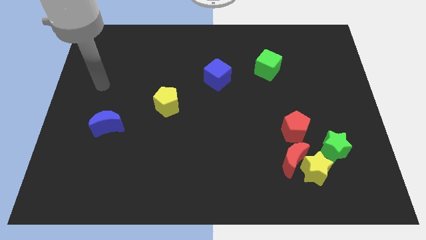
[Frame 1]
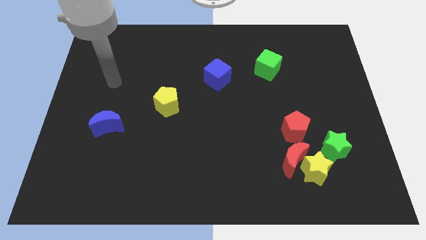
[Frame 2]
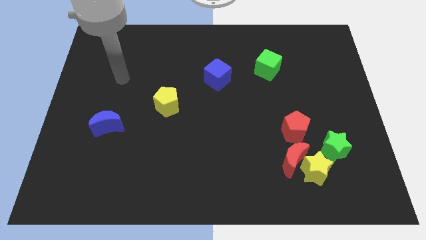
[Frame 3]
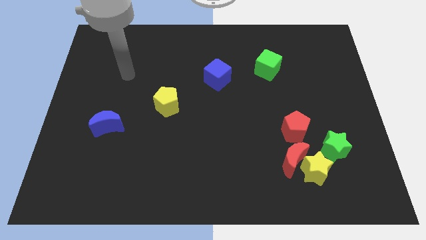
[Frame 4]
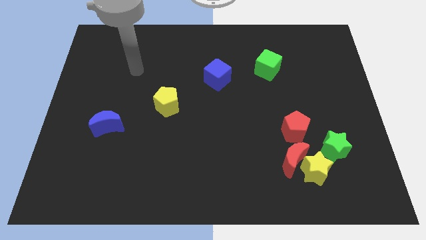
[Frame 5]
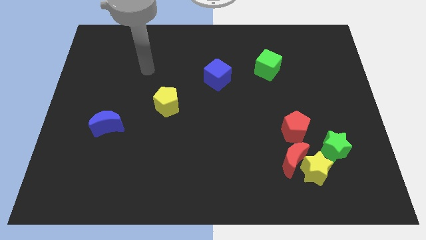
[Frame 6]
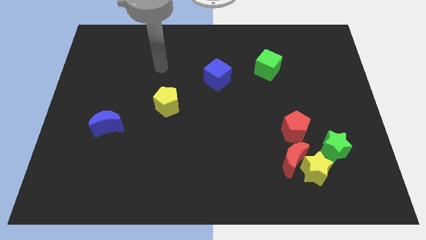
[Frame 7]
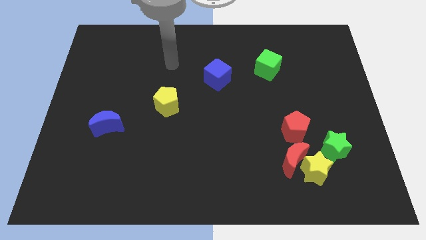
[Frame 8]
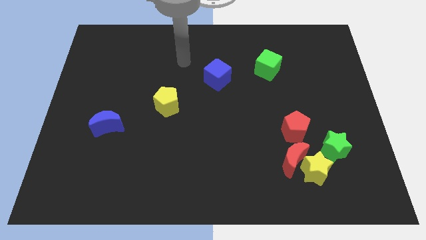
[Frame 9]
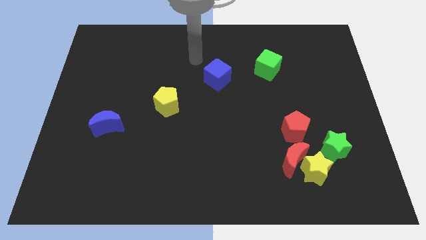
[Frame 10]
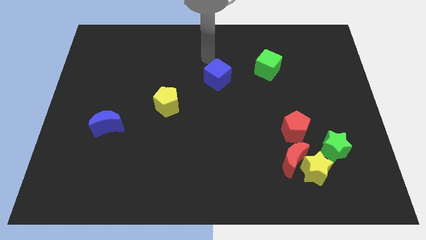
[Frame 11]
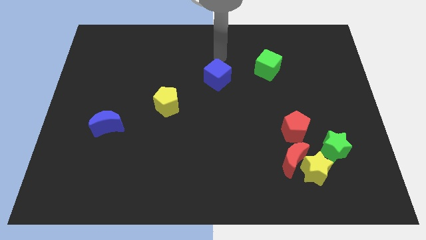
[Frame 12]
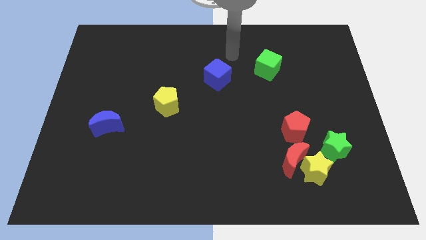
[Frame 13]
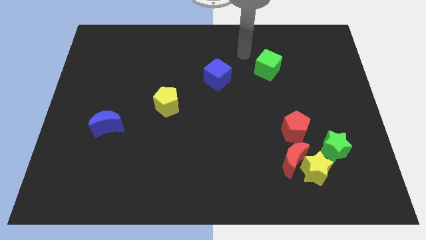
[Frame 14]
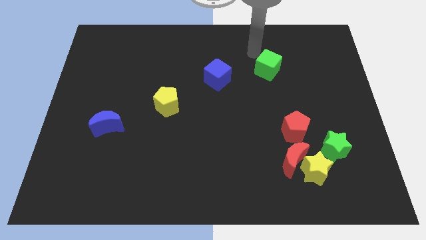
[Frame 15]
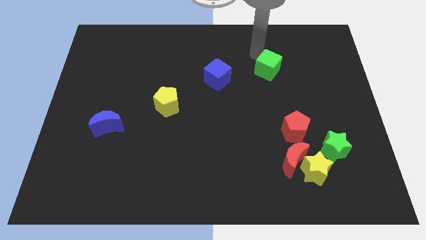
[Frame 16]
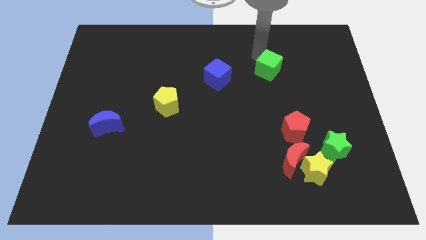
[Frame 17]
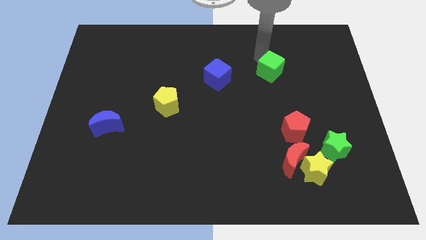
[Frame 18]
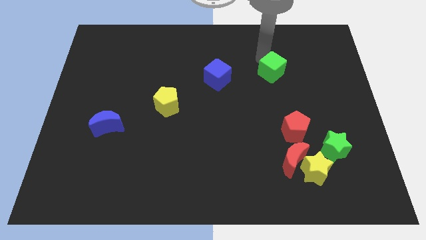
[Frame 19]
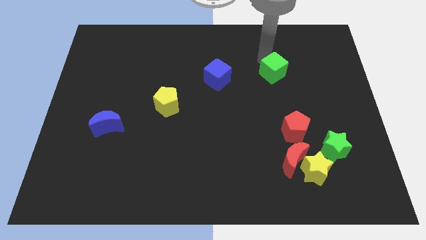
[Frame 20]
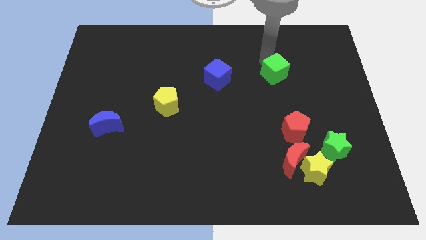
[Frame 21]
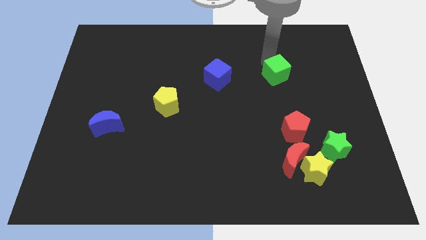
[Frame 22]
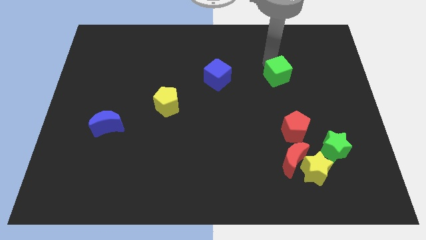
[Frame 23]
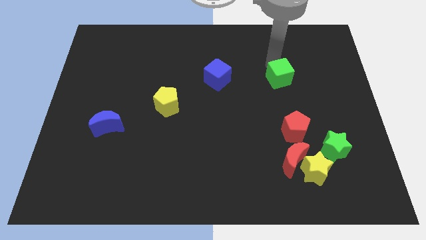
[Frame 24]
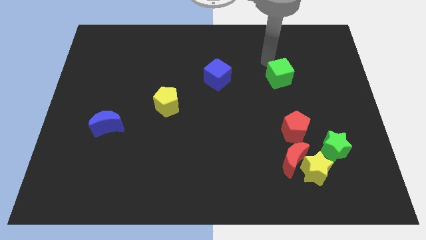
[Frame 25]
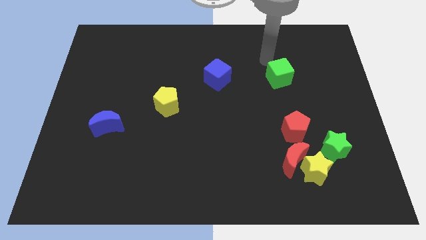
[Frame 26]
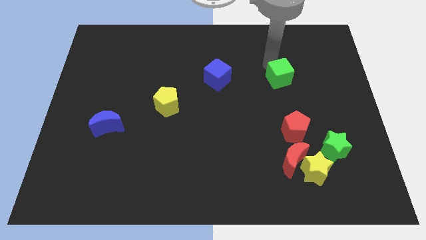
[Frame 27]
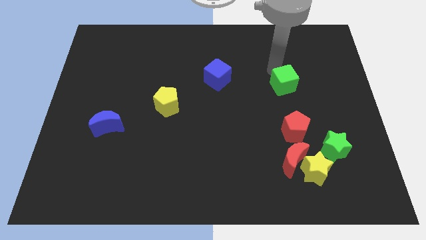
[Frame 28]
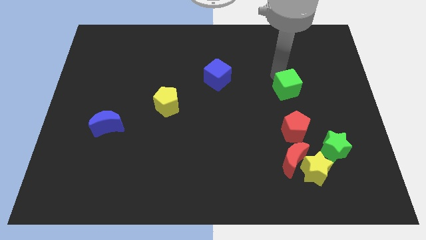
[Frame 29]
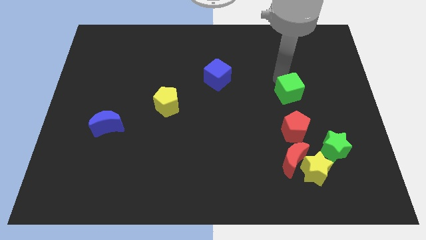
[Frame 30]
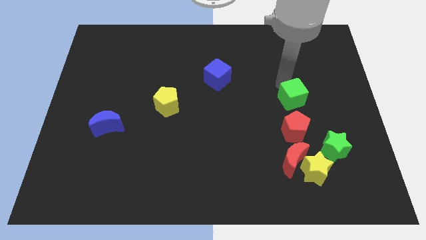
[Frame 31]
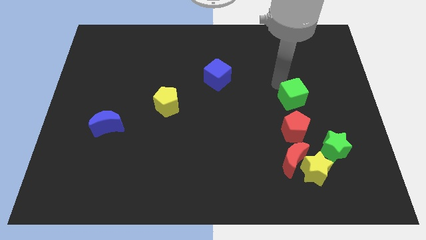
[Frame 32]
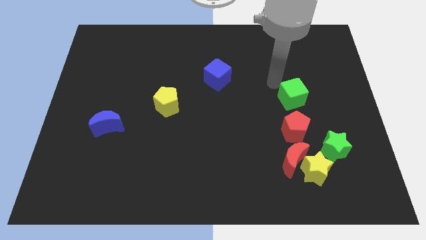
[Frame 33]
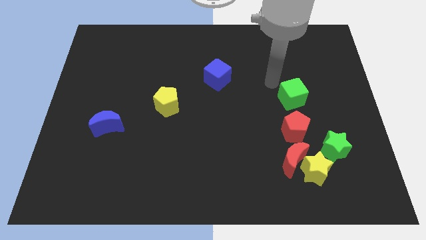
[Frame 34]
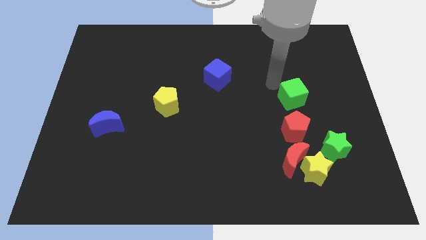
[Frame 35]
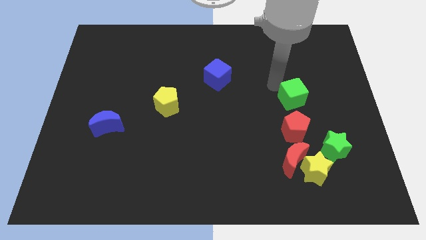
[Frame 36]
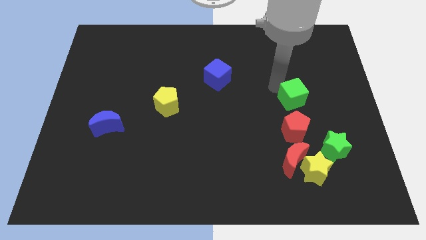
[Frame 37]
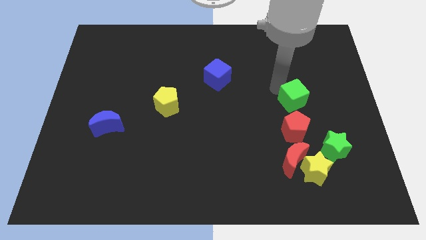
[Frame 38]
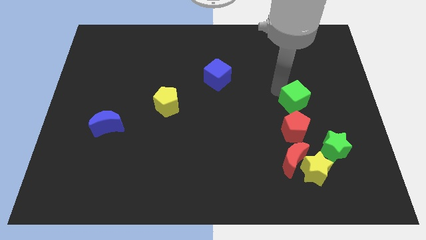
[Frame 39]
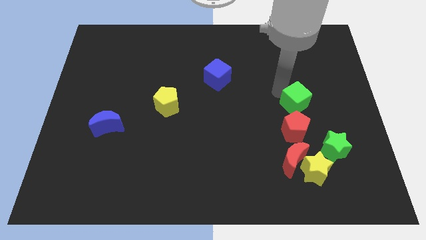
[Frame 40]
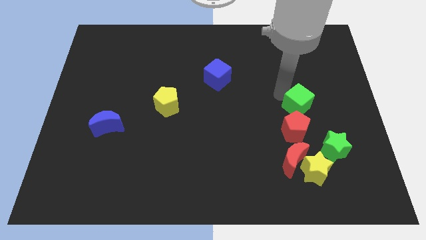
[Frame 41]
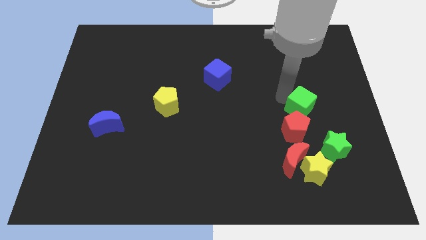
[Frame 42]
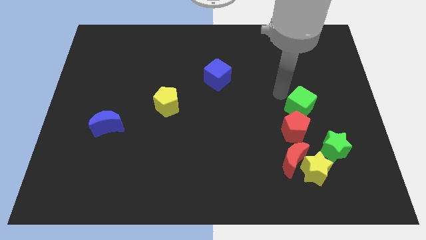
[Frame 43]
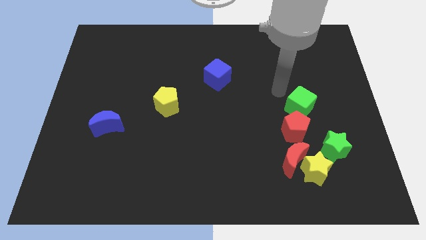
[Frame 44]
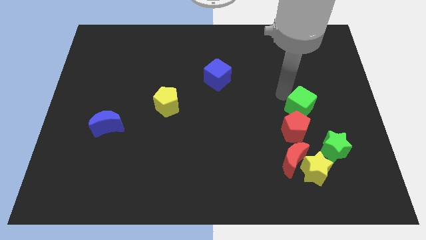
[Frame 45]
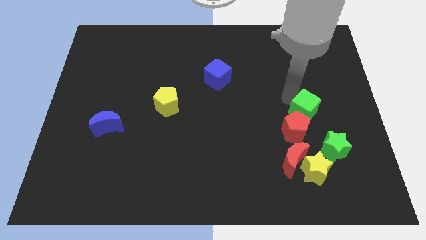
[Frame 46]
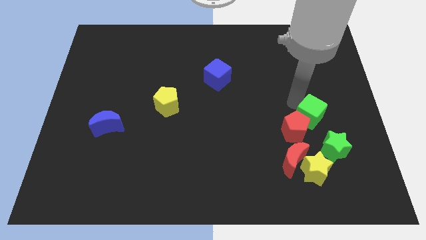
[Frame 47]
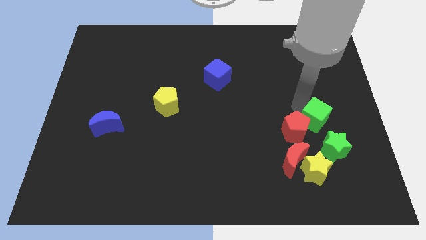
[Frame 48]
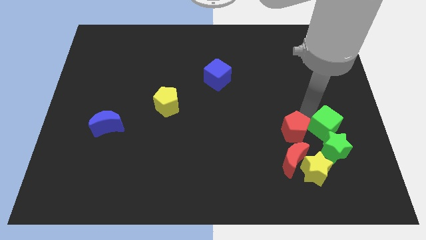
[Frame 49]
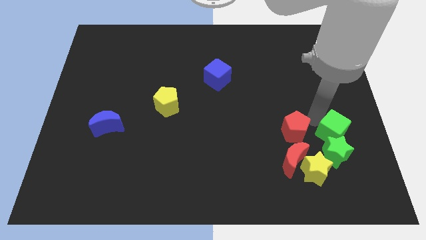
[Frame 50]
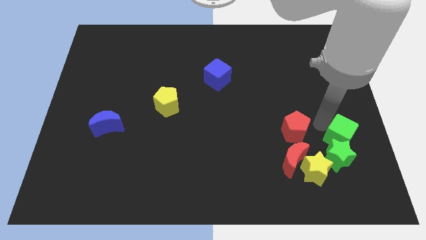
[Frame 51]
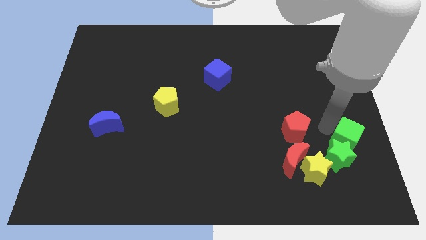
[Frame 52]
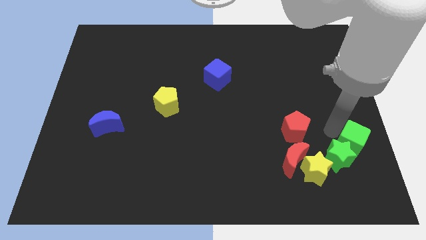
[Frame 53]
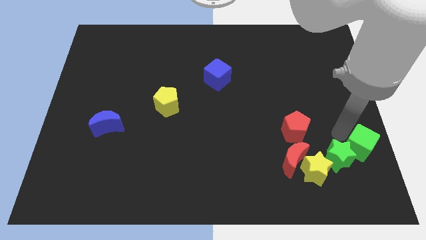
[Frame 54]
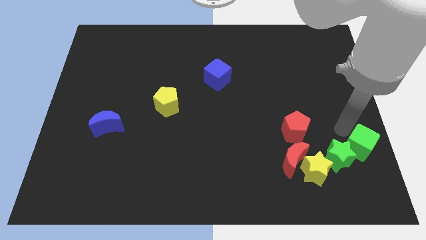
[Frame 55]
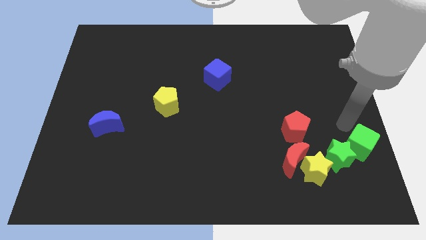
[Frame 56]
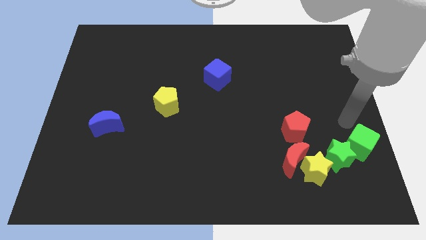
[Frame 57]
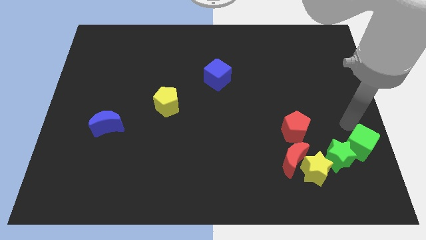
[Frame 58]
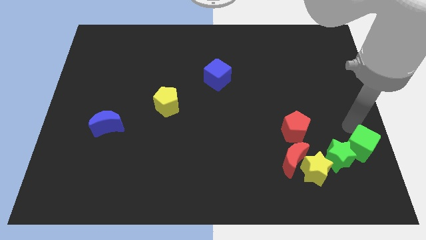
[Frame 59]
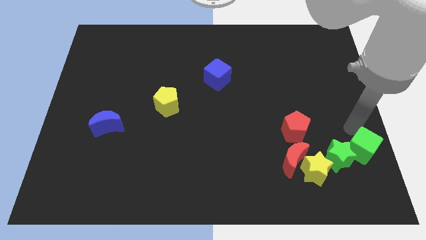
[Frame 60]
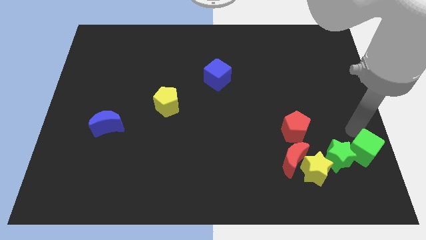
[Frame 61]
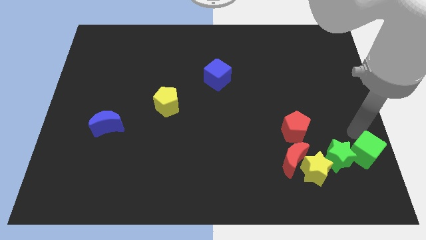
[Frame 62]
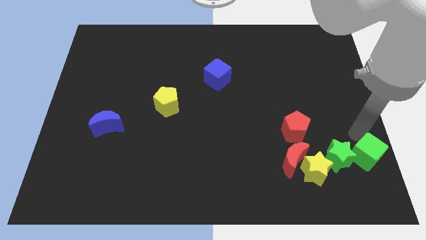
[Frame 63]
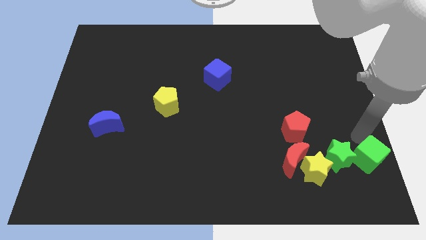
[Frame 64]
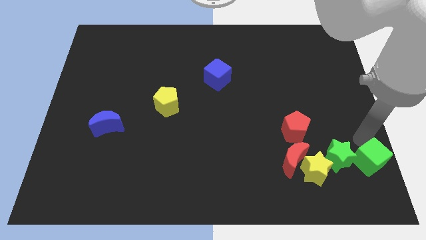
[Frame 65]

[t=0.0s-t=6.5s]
slide the green cube to the bottom right corner

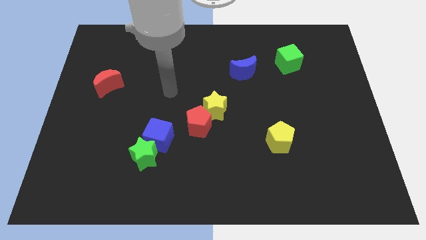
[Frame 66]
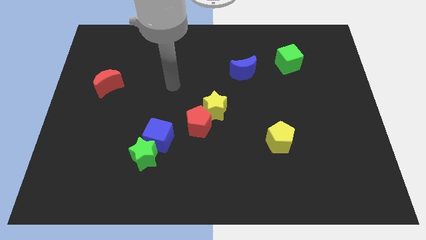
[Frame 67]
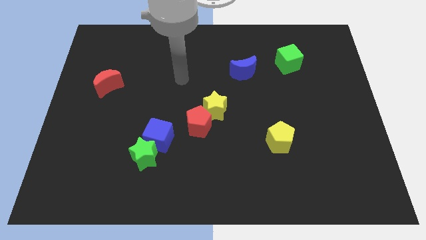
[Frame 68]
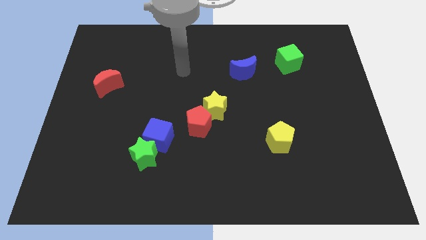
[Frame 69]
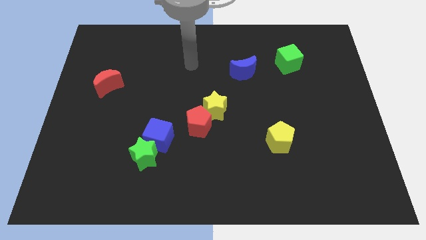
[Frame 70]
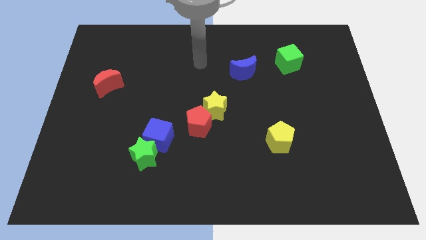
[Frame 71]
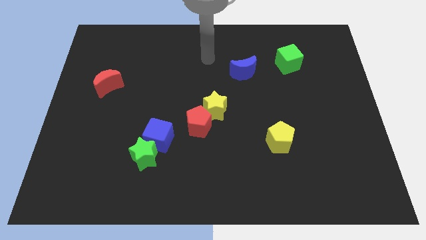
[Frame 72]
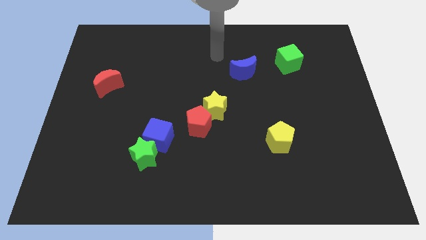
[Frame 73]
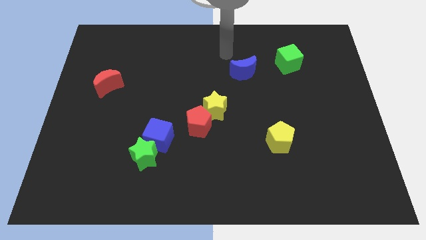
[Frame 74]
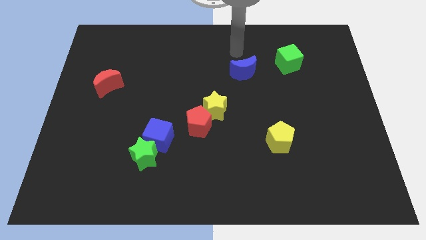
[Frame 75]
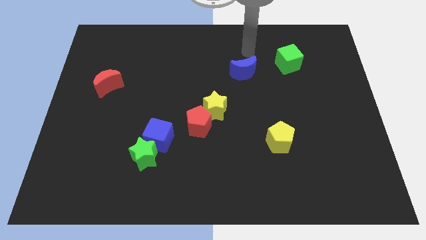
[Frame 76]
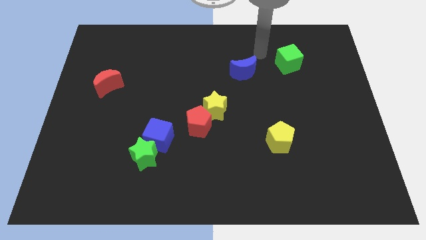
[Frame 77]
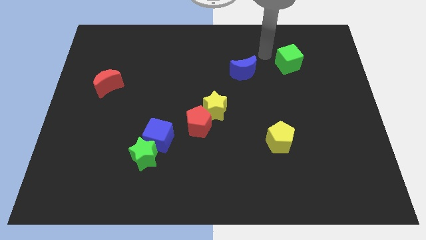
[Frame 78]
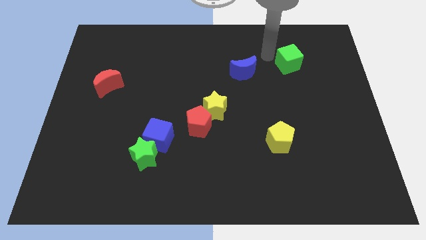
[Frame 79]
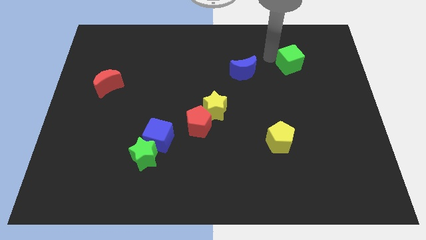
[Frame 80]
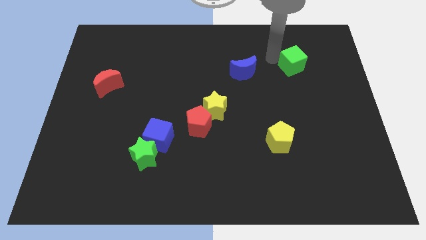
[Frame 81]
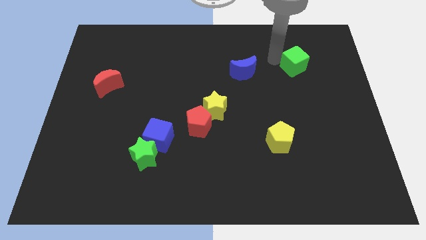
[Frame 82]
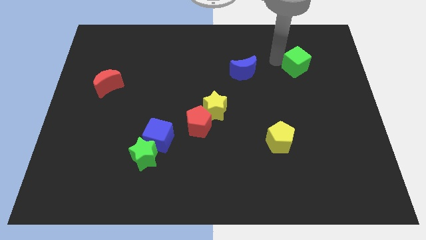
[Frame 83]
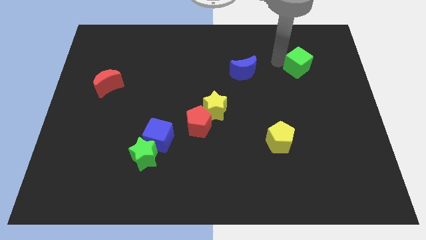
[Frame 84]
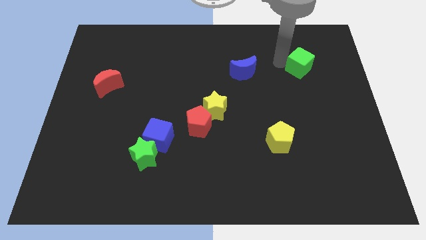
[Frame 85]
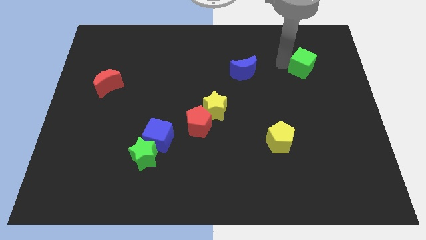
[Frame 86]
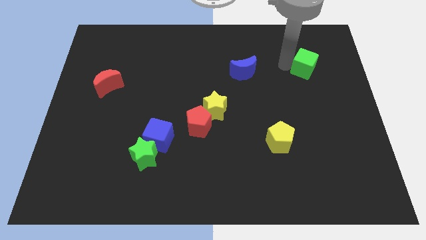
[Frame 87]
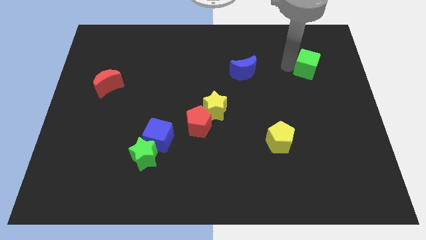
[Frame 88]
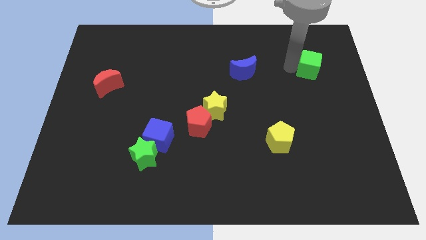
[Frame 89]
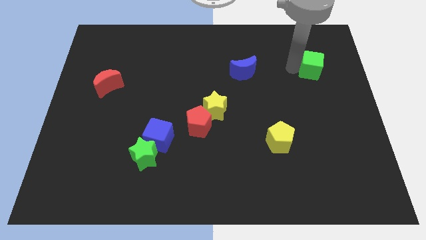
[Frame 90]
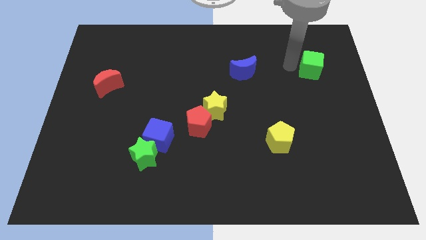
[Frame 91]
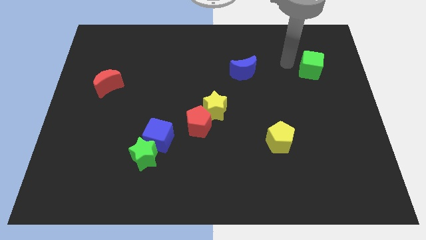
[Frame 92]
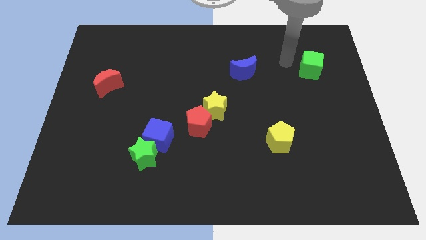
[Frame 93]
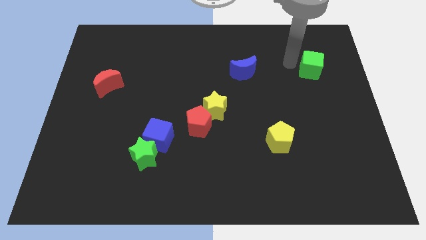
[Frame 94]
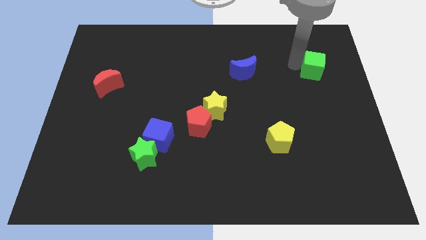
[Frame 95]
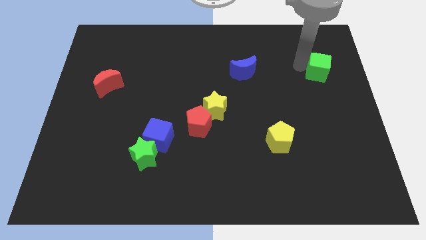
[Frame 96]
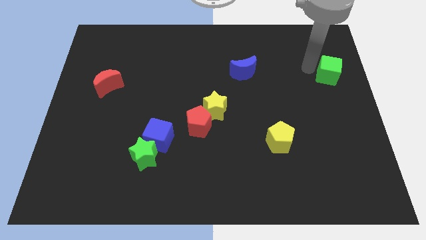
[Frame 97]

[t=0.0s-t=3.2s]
push the green cube to the right side
